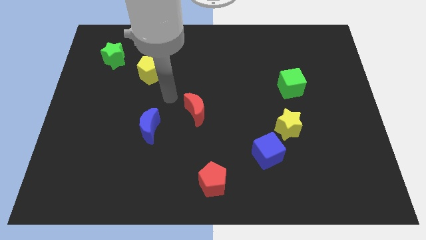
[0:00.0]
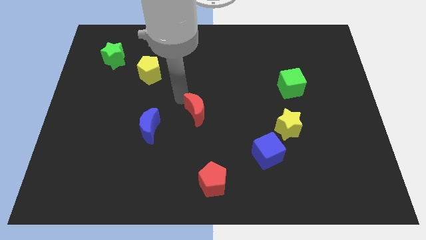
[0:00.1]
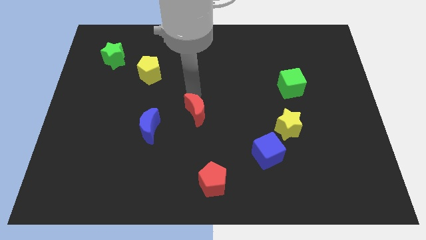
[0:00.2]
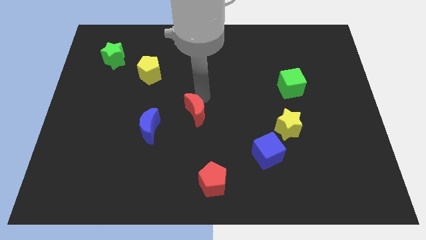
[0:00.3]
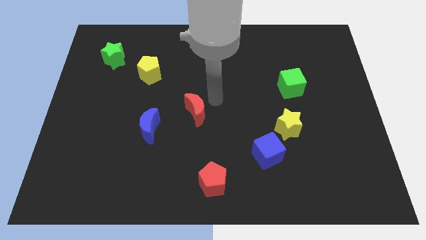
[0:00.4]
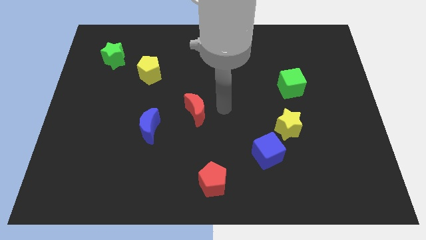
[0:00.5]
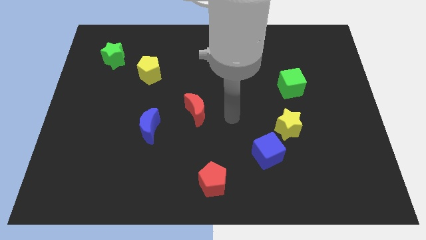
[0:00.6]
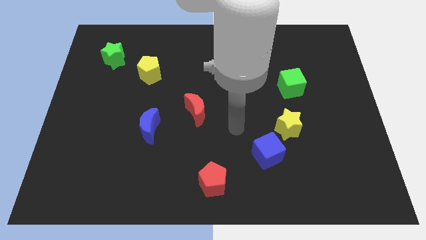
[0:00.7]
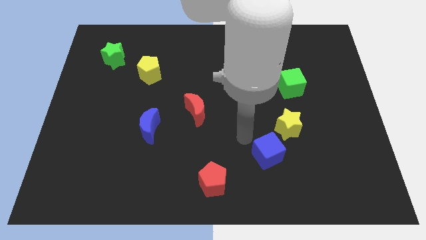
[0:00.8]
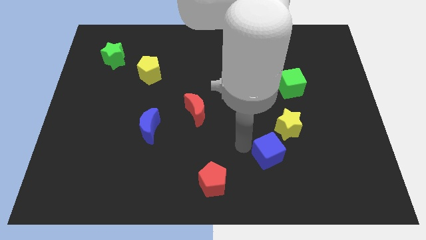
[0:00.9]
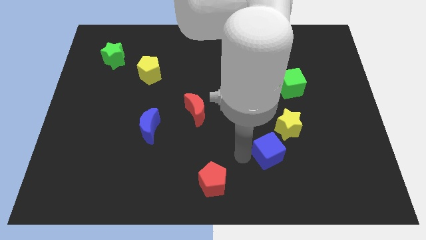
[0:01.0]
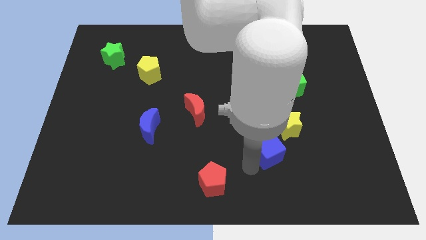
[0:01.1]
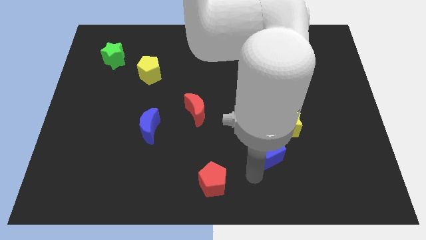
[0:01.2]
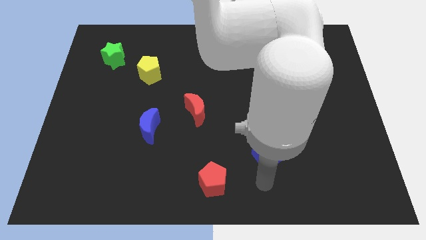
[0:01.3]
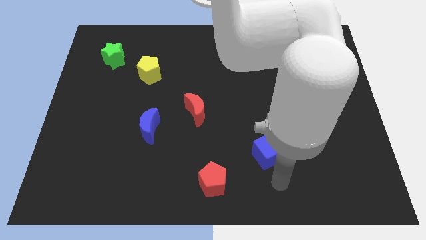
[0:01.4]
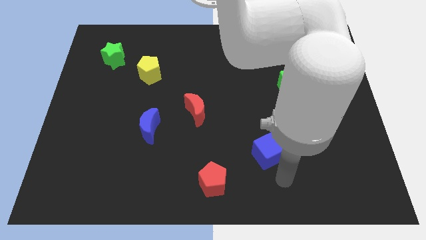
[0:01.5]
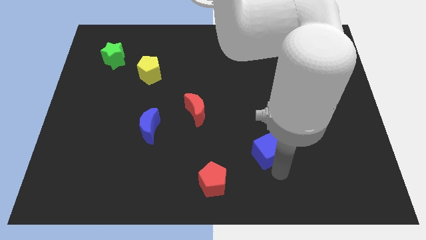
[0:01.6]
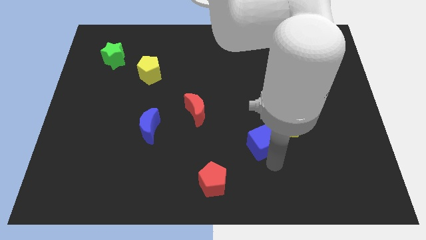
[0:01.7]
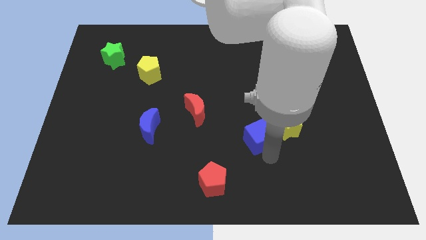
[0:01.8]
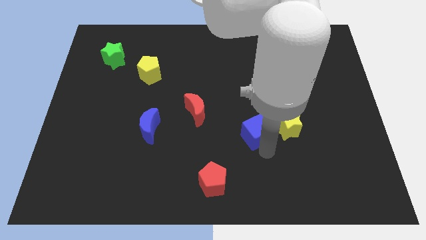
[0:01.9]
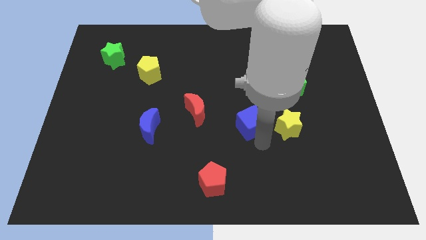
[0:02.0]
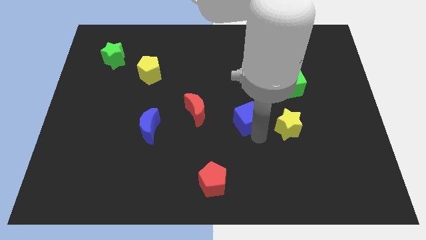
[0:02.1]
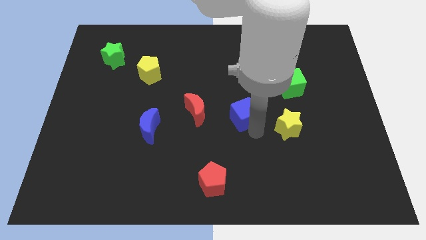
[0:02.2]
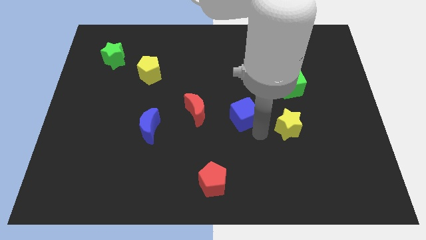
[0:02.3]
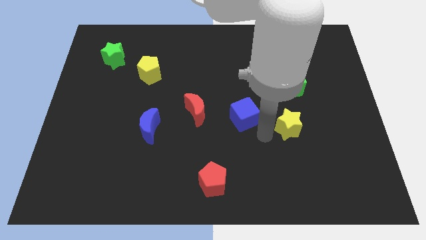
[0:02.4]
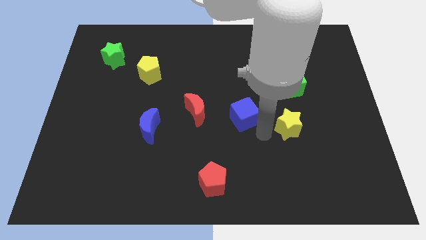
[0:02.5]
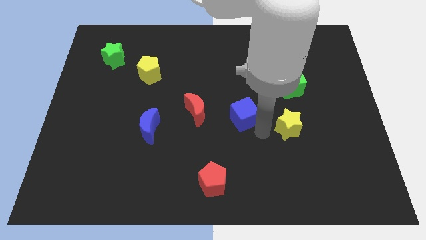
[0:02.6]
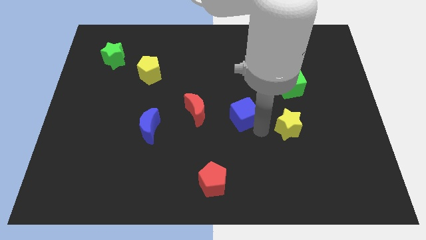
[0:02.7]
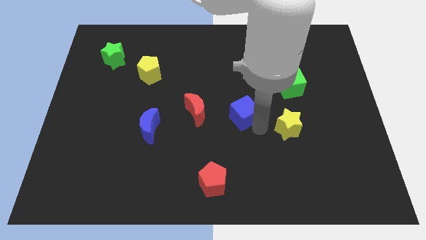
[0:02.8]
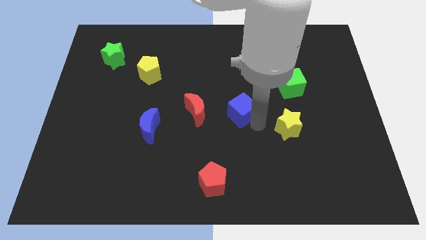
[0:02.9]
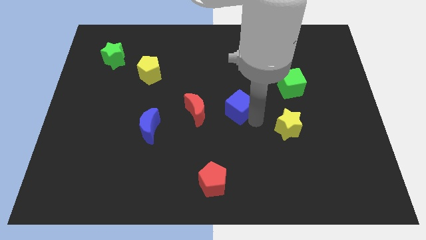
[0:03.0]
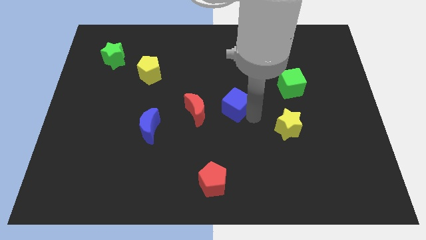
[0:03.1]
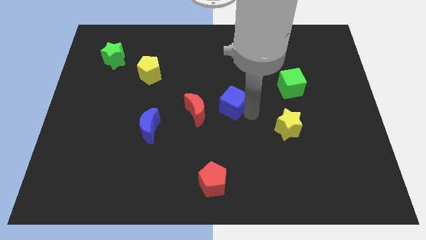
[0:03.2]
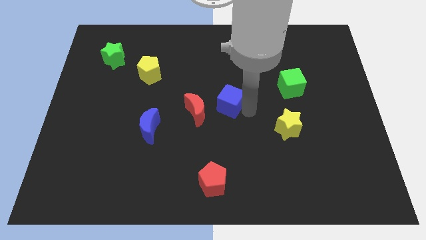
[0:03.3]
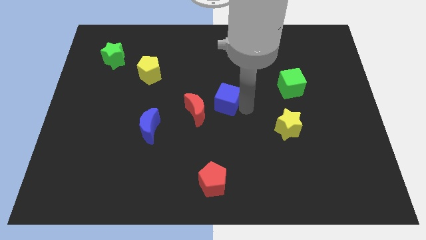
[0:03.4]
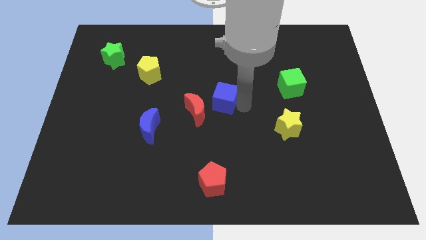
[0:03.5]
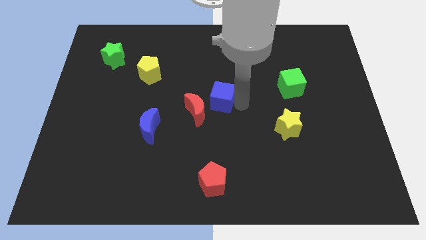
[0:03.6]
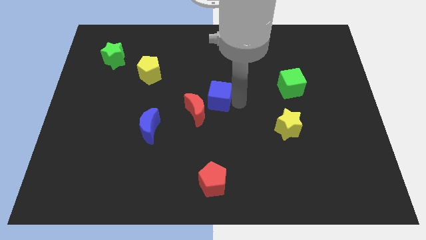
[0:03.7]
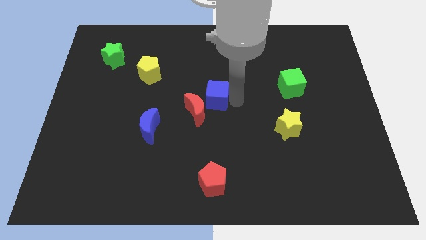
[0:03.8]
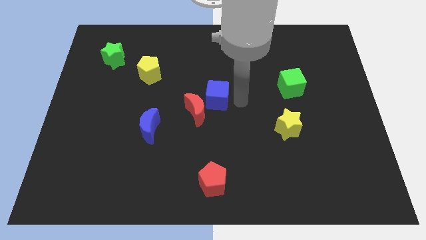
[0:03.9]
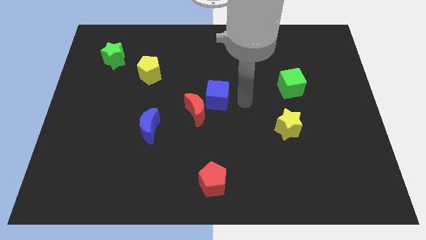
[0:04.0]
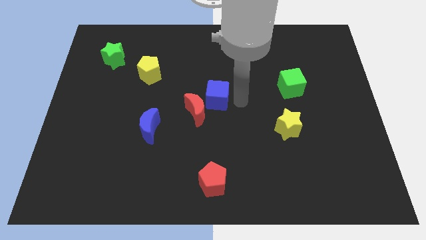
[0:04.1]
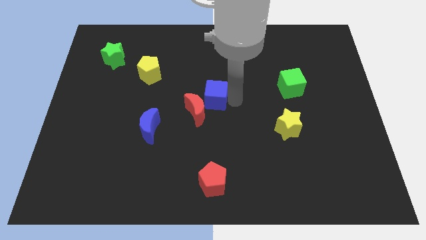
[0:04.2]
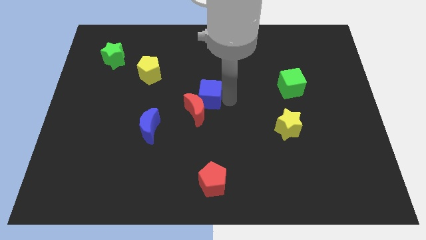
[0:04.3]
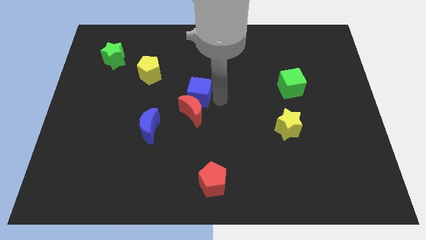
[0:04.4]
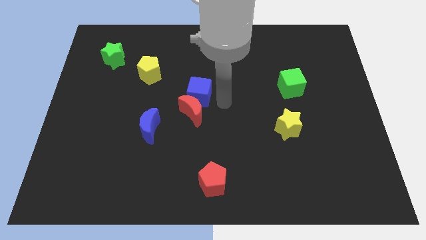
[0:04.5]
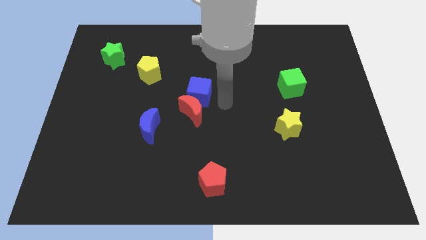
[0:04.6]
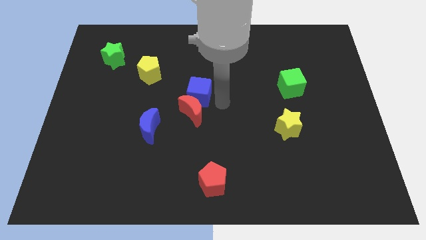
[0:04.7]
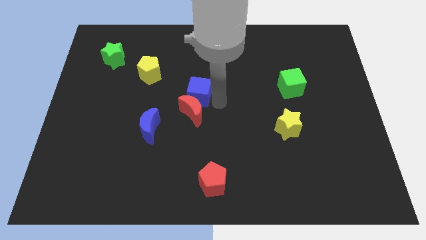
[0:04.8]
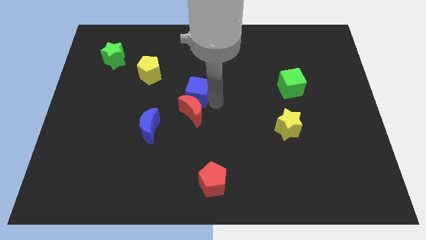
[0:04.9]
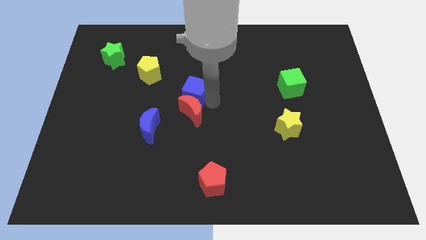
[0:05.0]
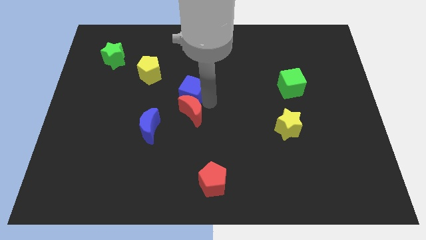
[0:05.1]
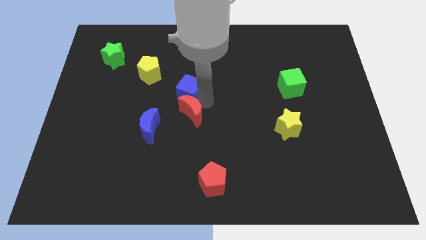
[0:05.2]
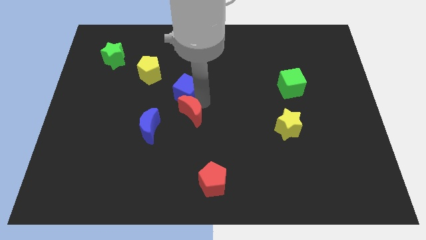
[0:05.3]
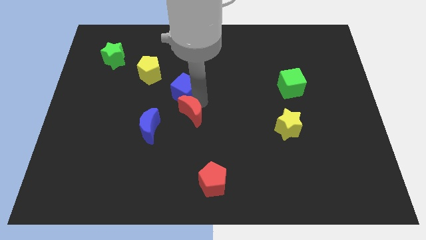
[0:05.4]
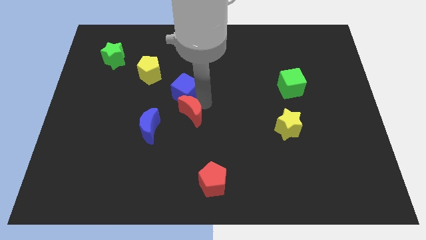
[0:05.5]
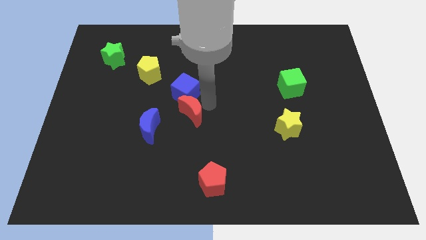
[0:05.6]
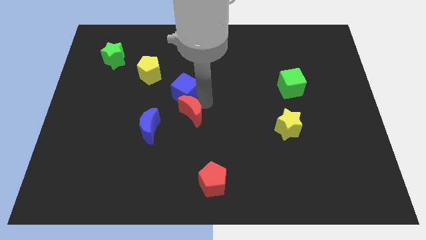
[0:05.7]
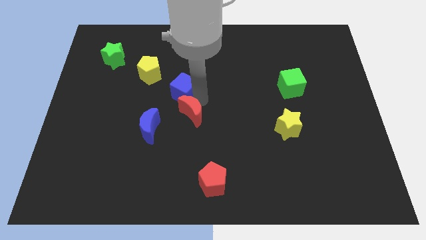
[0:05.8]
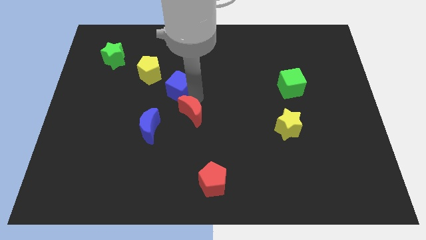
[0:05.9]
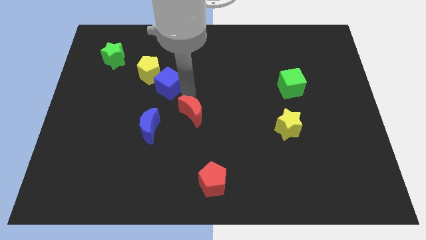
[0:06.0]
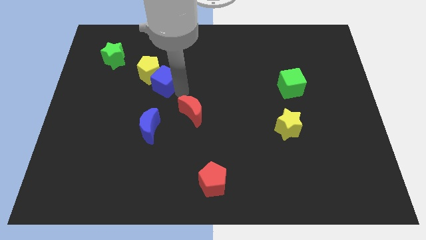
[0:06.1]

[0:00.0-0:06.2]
put the blue cube to the yellow pentagon
